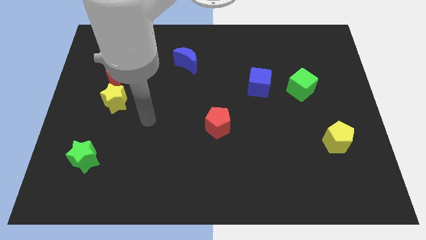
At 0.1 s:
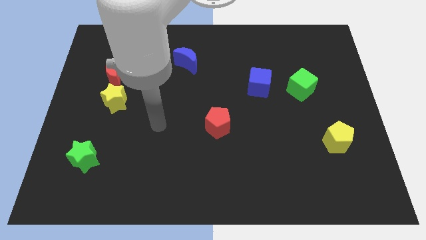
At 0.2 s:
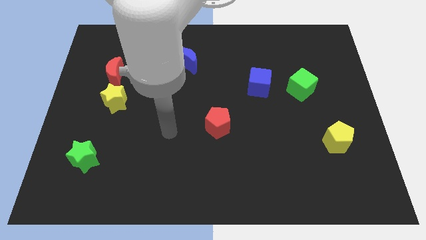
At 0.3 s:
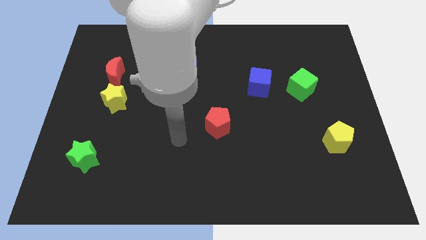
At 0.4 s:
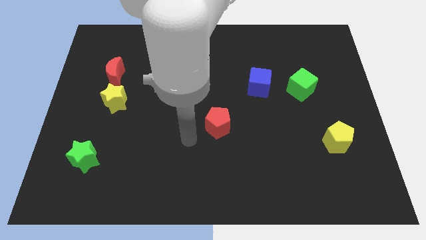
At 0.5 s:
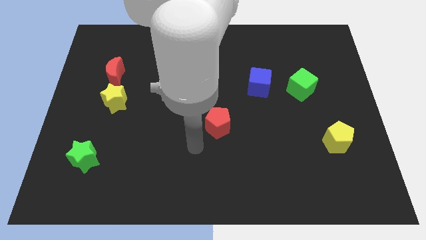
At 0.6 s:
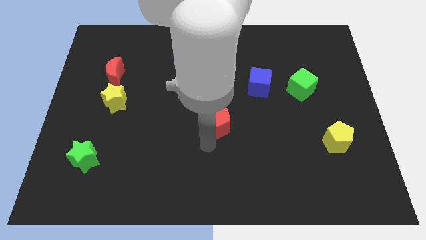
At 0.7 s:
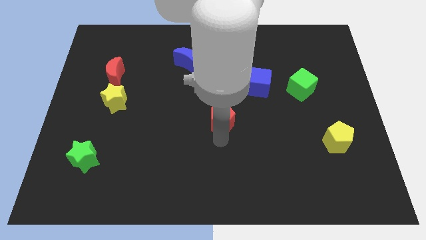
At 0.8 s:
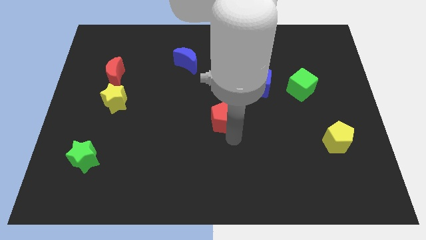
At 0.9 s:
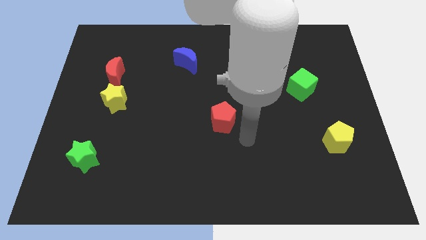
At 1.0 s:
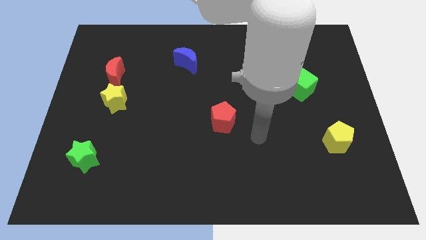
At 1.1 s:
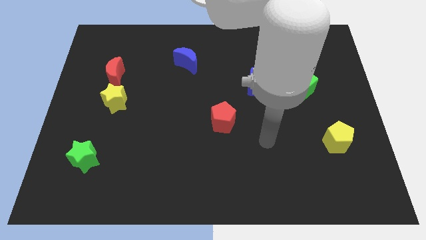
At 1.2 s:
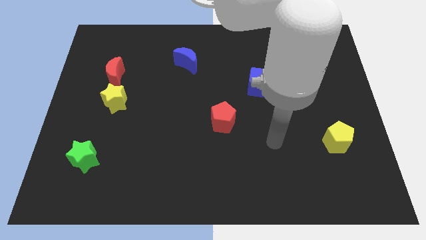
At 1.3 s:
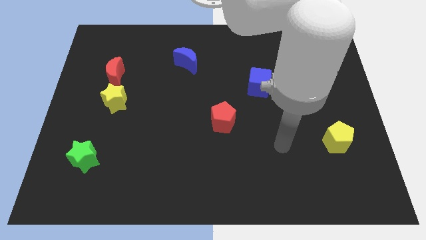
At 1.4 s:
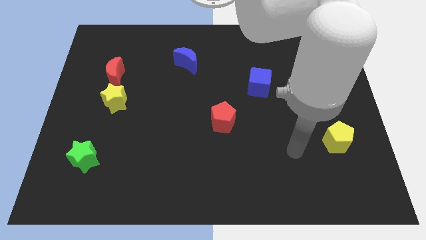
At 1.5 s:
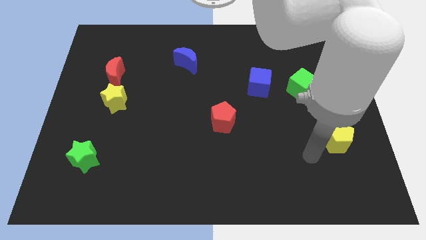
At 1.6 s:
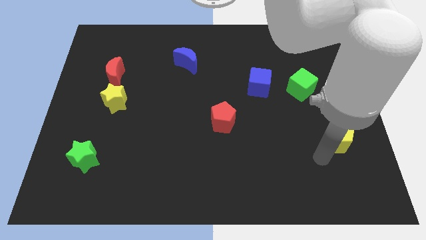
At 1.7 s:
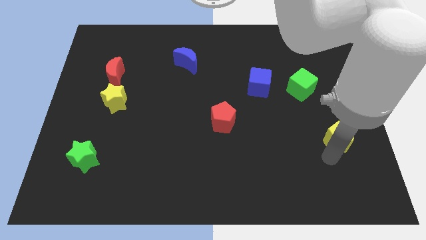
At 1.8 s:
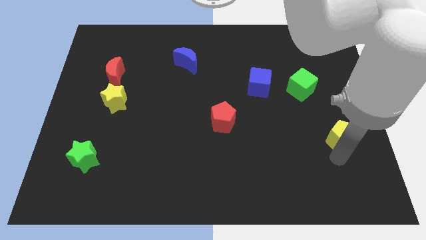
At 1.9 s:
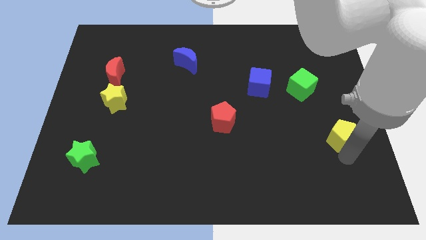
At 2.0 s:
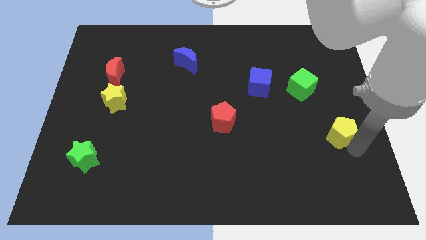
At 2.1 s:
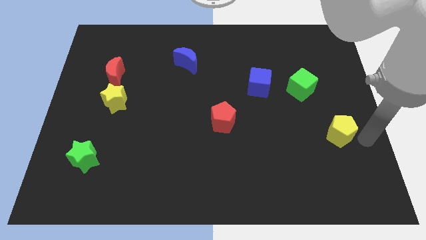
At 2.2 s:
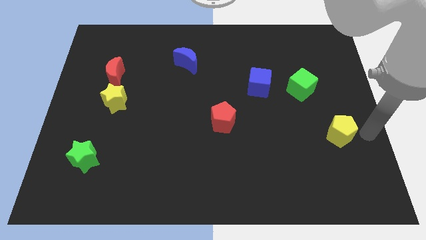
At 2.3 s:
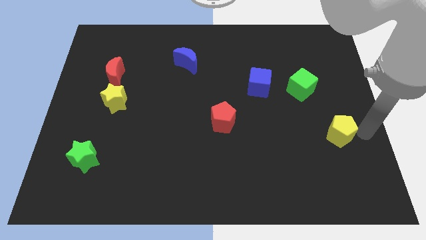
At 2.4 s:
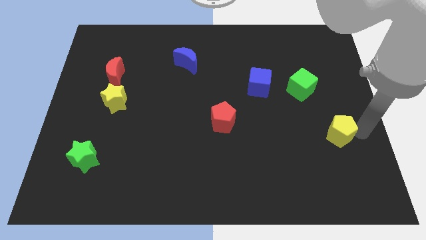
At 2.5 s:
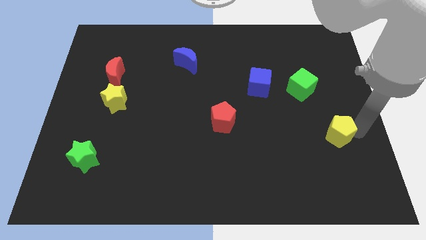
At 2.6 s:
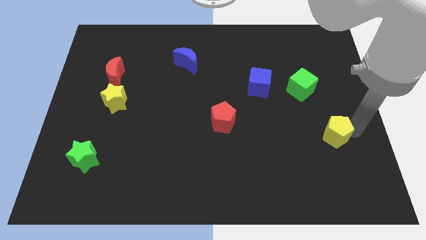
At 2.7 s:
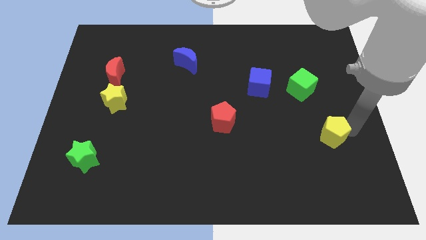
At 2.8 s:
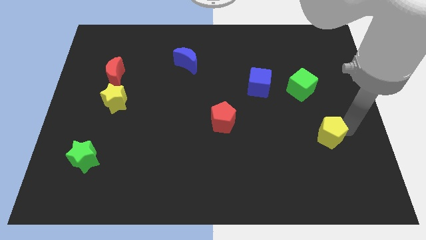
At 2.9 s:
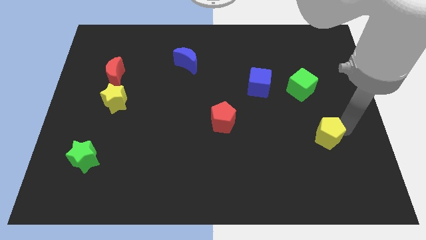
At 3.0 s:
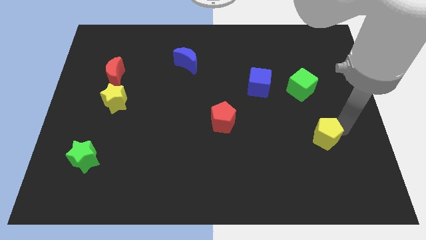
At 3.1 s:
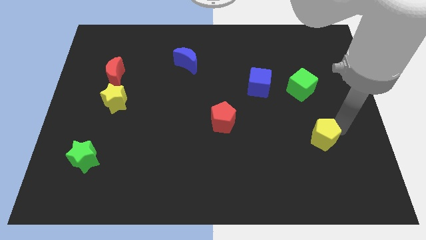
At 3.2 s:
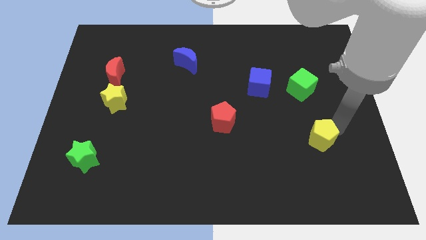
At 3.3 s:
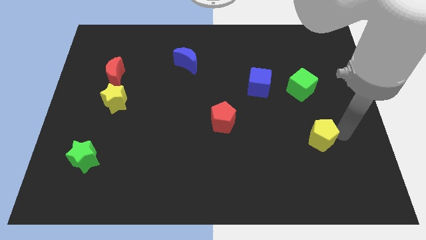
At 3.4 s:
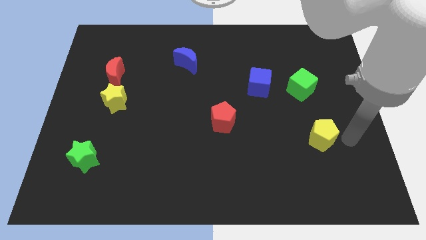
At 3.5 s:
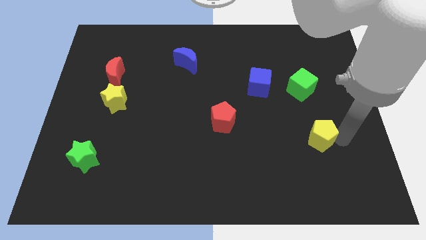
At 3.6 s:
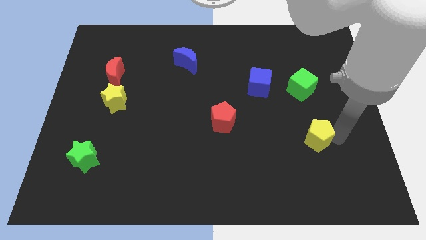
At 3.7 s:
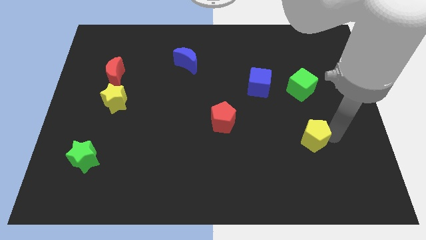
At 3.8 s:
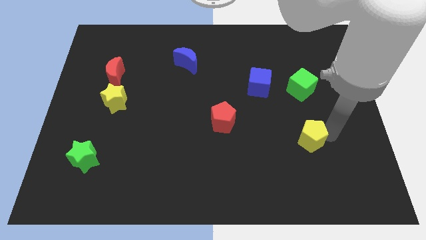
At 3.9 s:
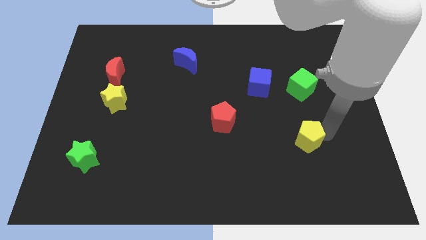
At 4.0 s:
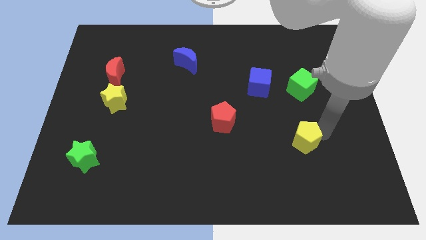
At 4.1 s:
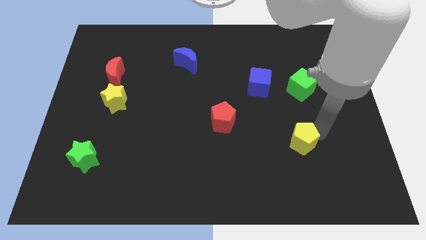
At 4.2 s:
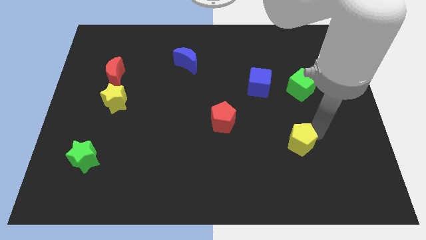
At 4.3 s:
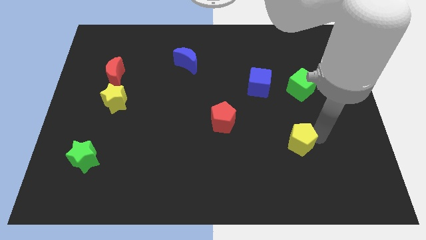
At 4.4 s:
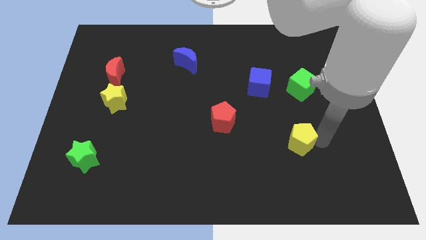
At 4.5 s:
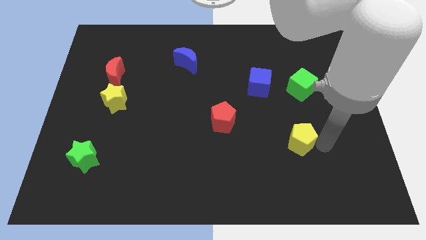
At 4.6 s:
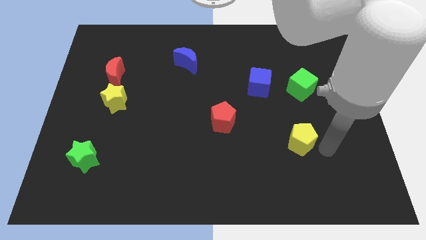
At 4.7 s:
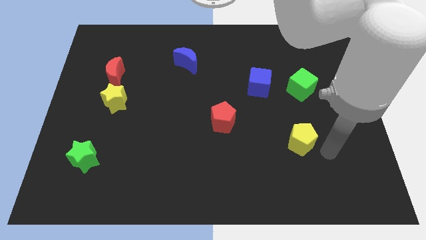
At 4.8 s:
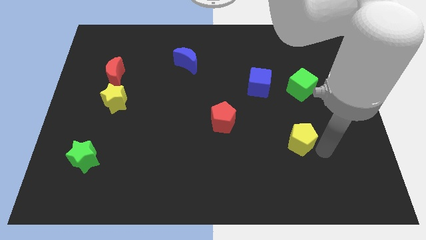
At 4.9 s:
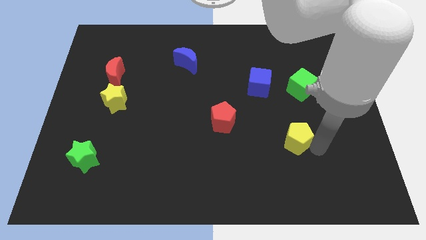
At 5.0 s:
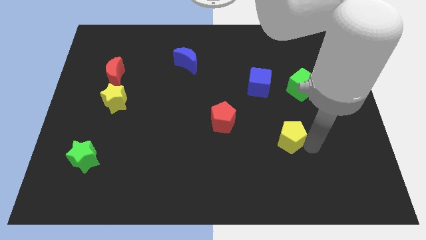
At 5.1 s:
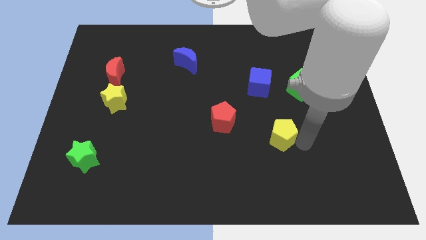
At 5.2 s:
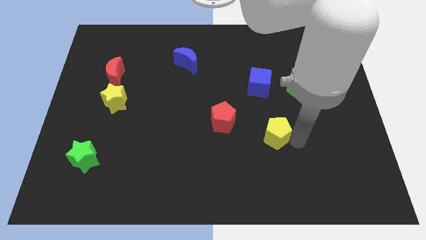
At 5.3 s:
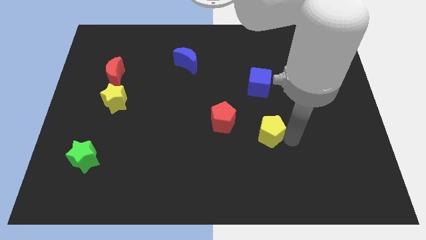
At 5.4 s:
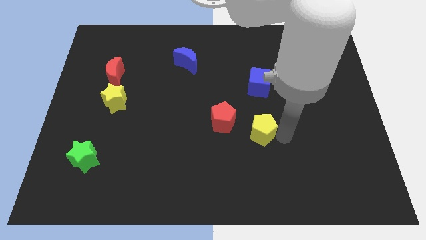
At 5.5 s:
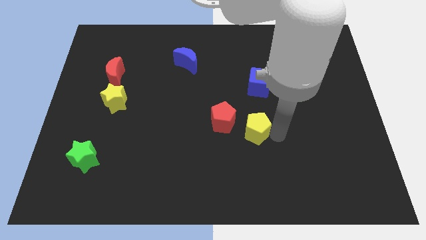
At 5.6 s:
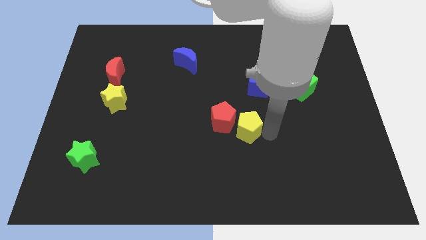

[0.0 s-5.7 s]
put the yellow pentagon towards the red pentagon

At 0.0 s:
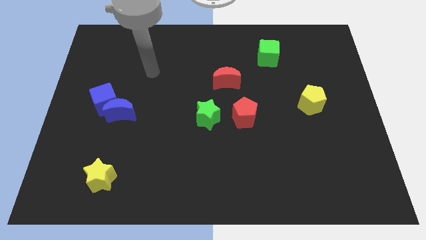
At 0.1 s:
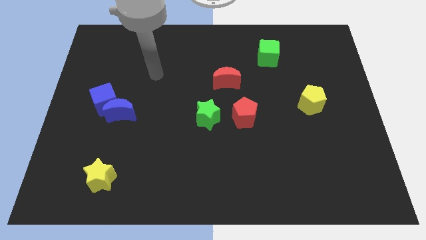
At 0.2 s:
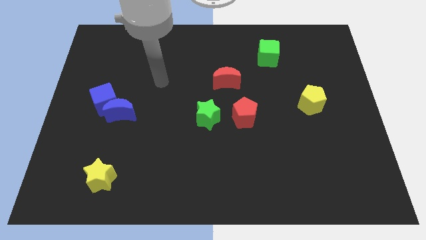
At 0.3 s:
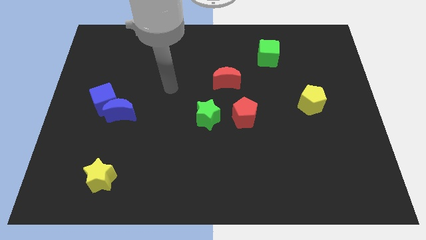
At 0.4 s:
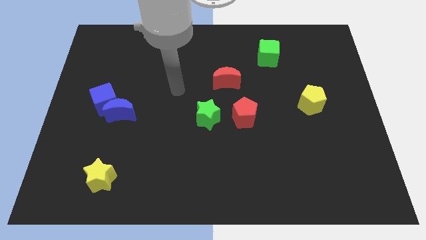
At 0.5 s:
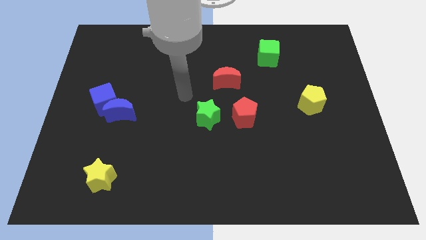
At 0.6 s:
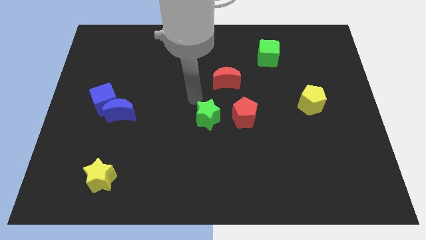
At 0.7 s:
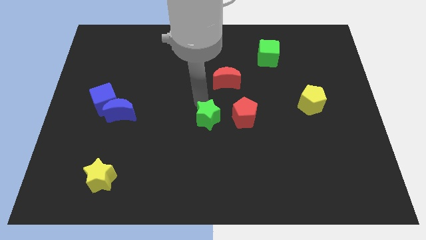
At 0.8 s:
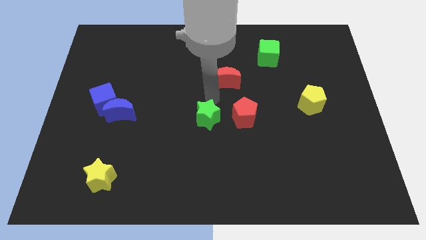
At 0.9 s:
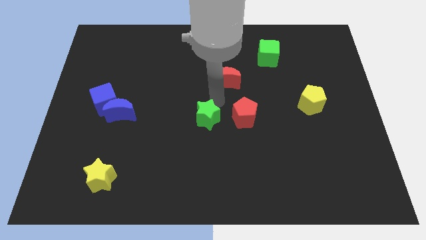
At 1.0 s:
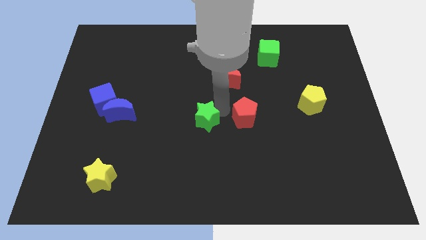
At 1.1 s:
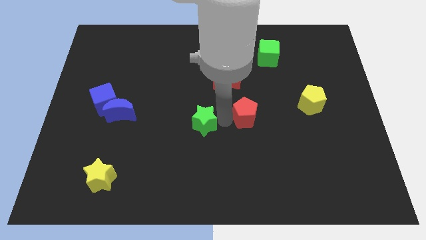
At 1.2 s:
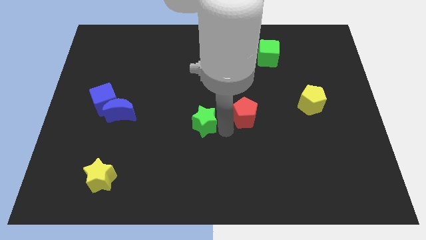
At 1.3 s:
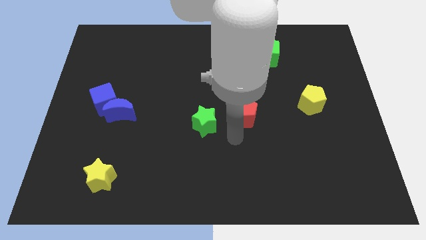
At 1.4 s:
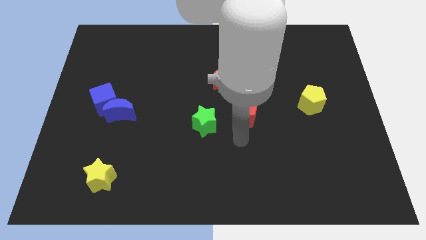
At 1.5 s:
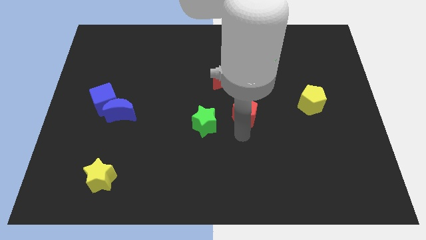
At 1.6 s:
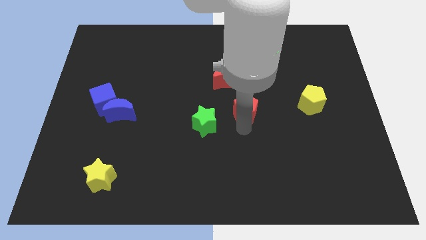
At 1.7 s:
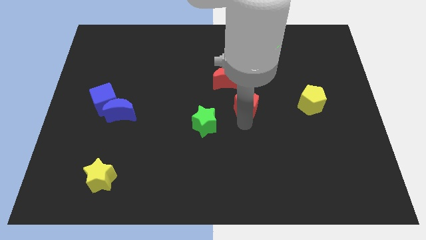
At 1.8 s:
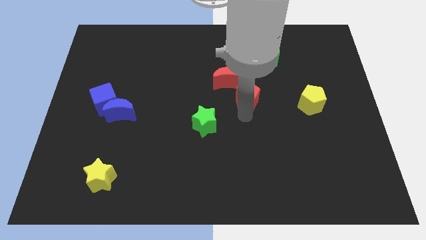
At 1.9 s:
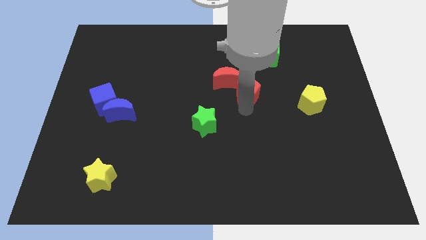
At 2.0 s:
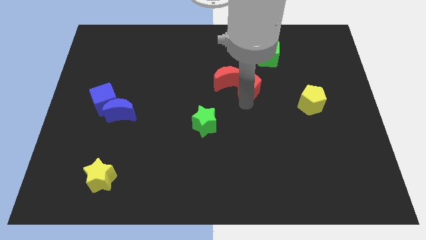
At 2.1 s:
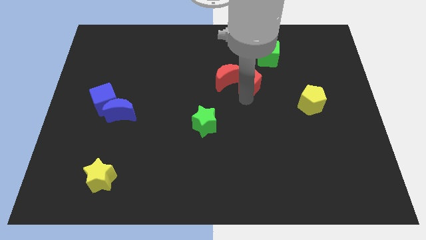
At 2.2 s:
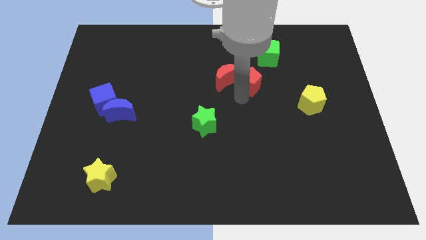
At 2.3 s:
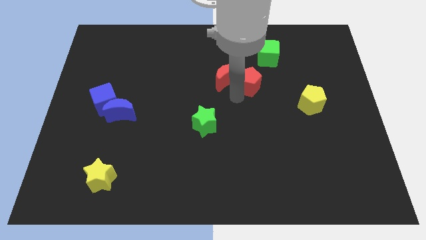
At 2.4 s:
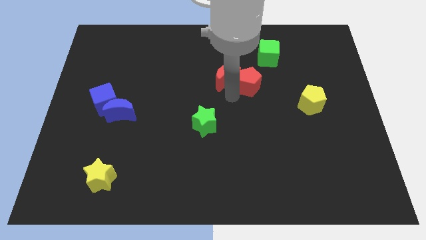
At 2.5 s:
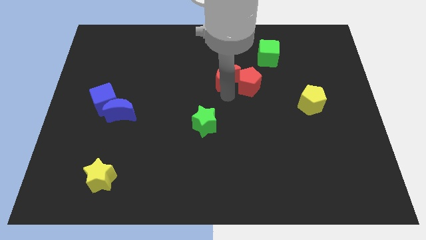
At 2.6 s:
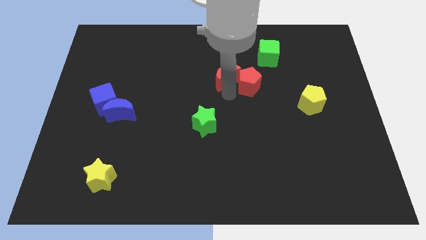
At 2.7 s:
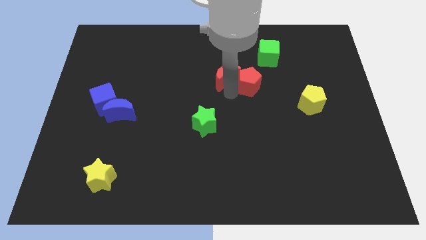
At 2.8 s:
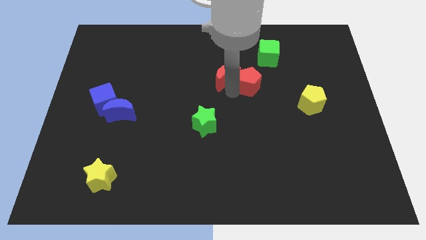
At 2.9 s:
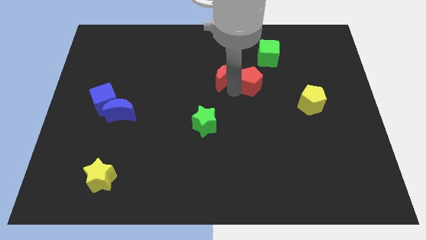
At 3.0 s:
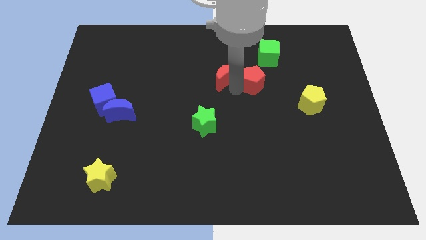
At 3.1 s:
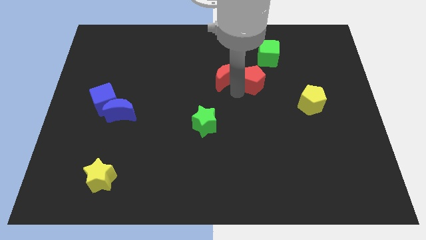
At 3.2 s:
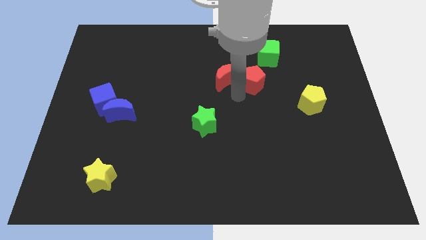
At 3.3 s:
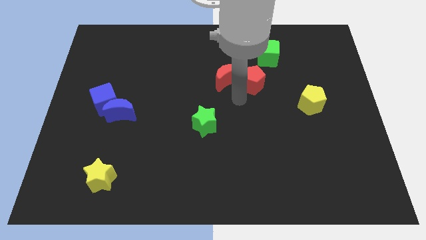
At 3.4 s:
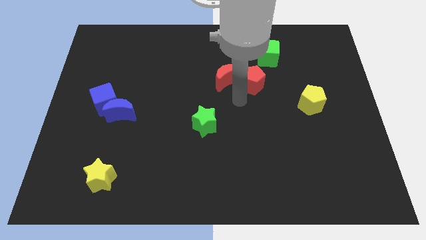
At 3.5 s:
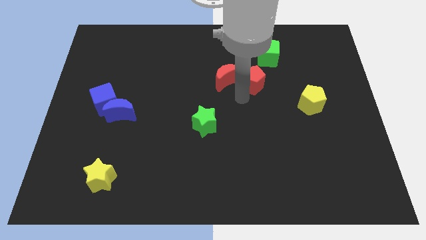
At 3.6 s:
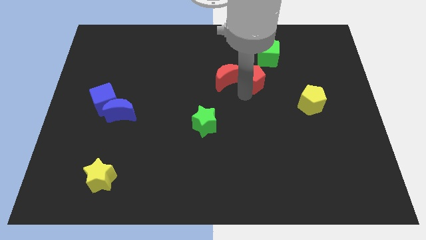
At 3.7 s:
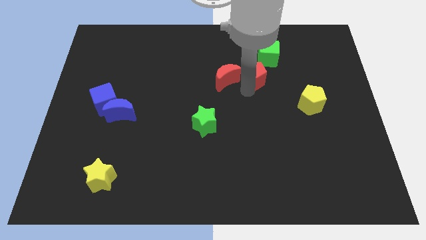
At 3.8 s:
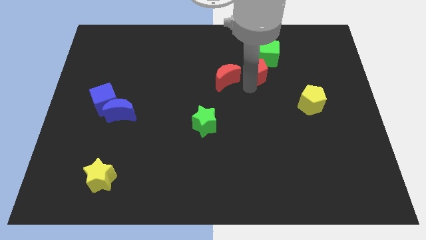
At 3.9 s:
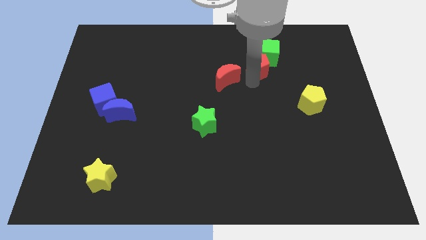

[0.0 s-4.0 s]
put the red pentagon towards the green cube
